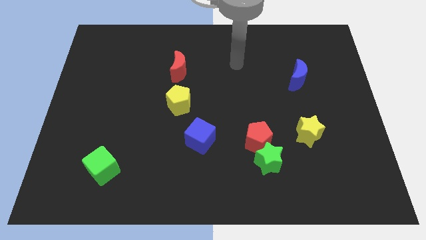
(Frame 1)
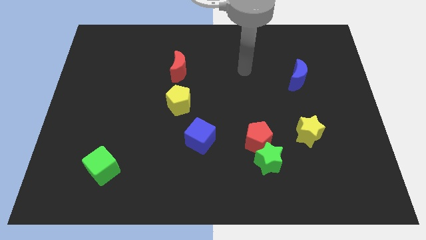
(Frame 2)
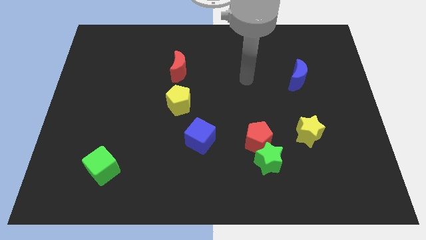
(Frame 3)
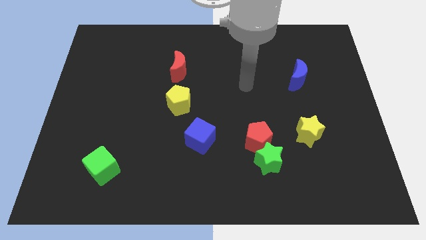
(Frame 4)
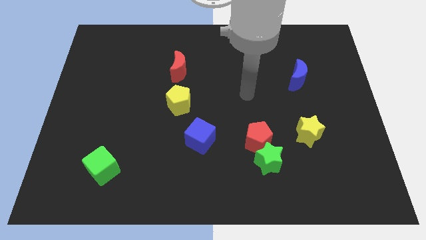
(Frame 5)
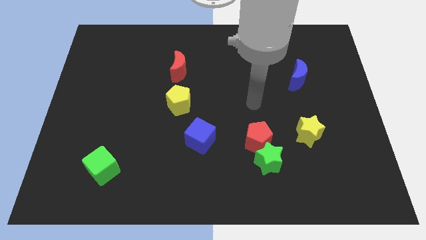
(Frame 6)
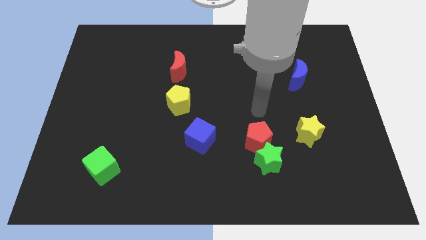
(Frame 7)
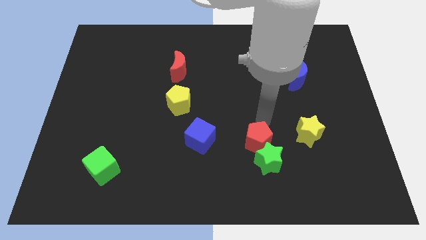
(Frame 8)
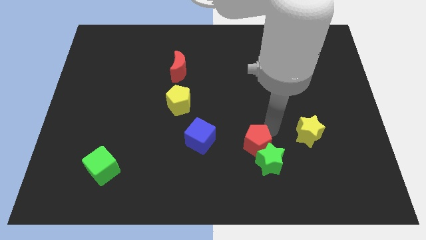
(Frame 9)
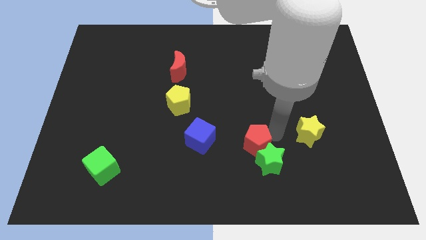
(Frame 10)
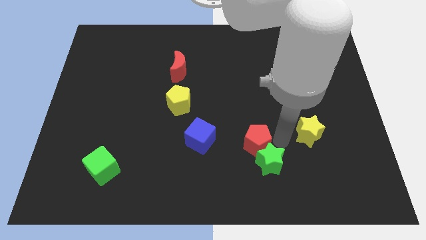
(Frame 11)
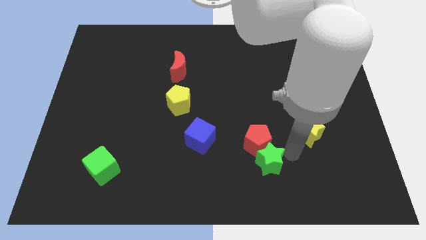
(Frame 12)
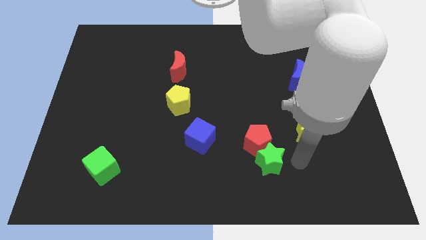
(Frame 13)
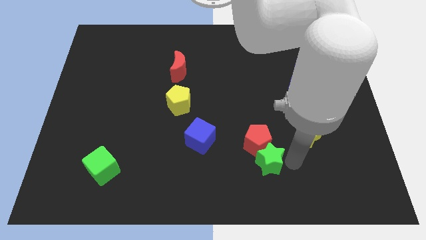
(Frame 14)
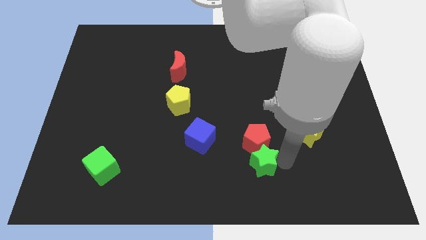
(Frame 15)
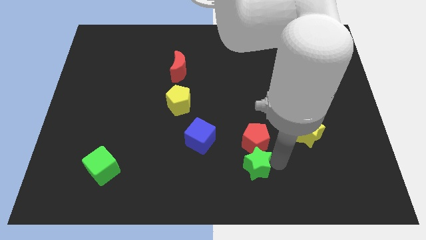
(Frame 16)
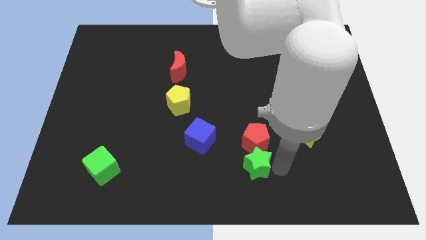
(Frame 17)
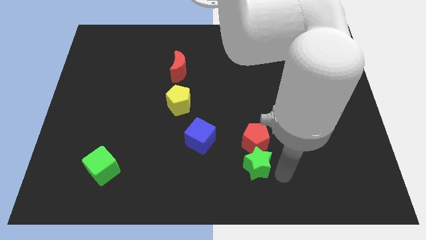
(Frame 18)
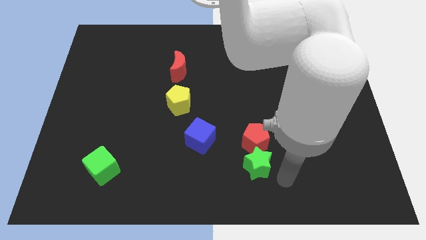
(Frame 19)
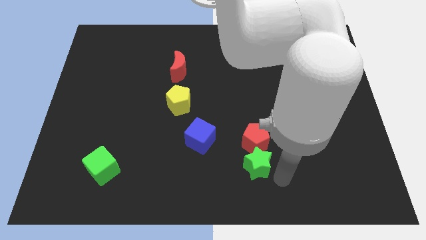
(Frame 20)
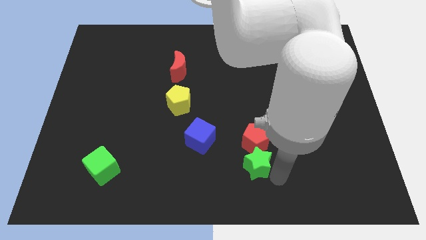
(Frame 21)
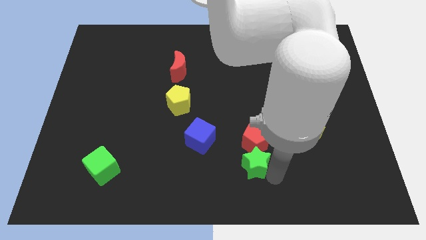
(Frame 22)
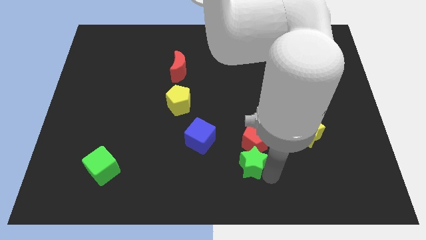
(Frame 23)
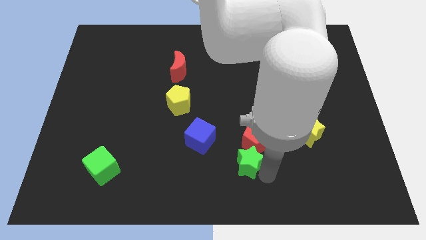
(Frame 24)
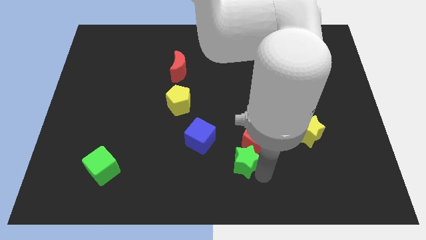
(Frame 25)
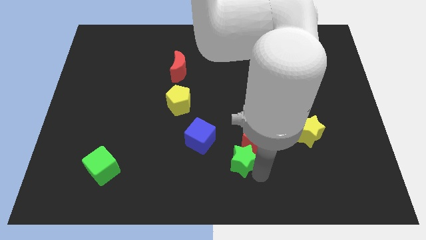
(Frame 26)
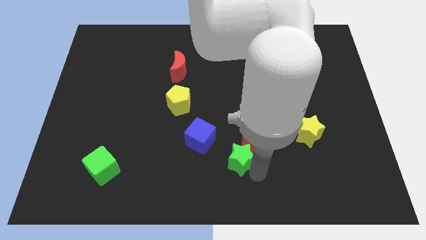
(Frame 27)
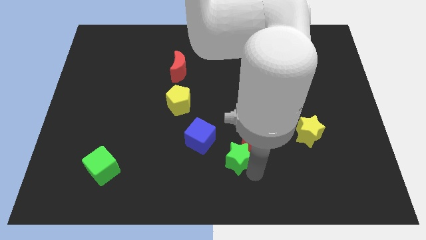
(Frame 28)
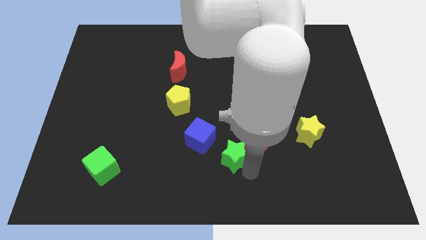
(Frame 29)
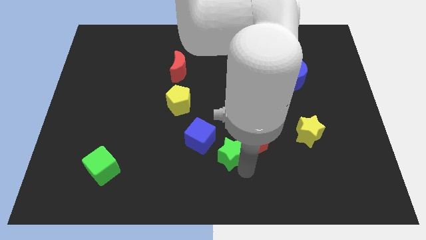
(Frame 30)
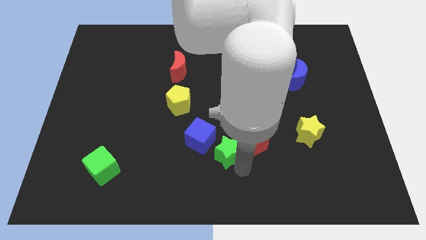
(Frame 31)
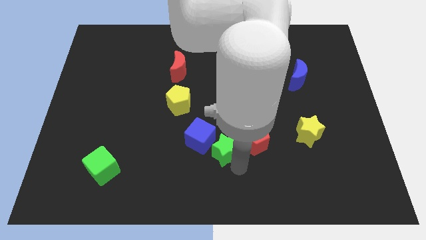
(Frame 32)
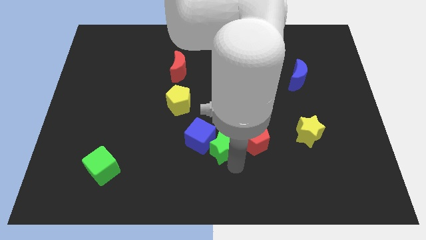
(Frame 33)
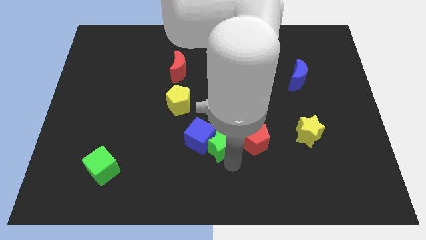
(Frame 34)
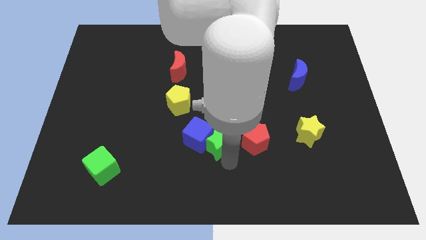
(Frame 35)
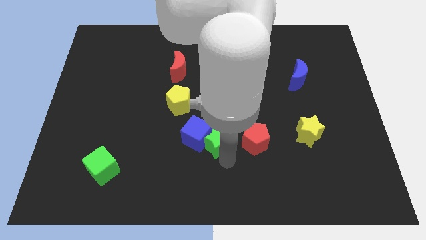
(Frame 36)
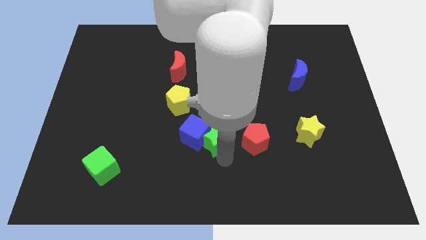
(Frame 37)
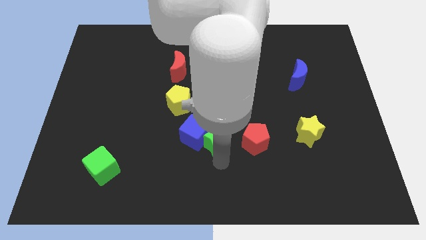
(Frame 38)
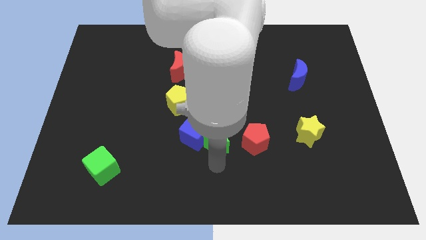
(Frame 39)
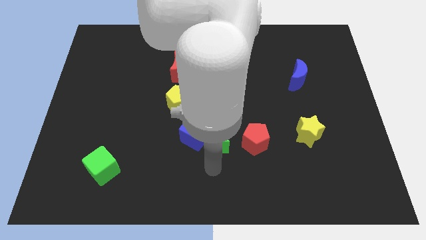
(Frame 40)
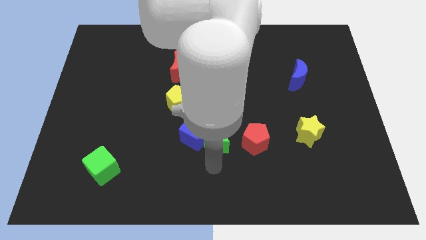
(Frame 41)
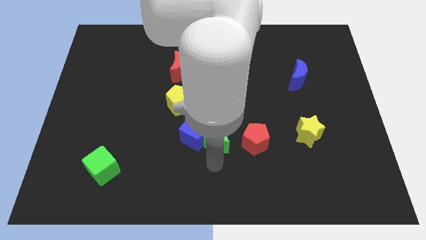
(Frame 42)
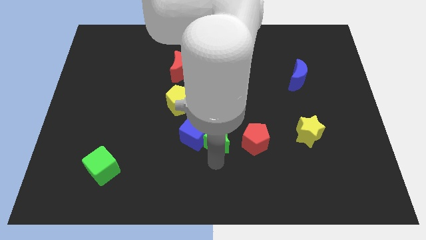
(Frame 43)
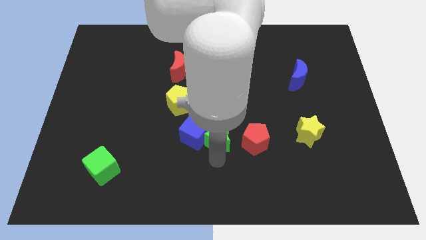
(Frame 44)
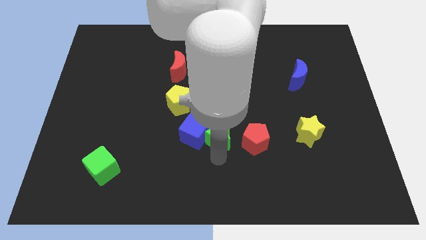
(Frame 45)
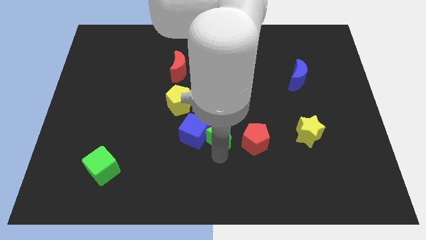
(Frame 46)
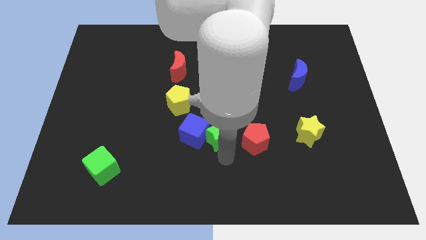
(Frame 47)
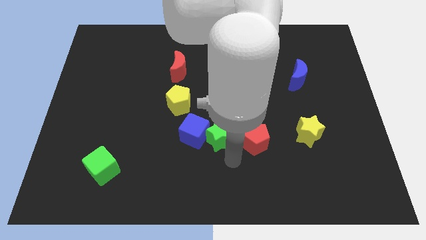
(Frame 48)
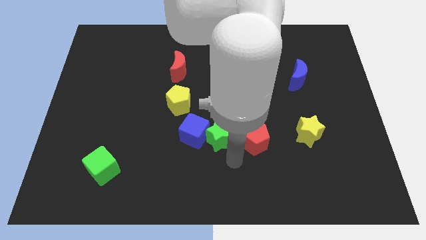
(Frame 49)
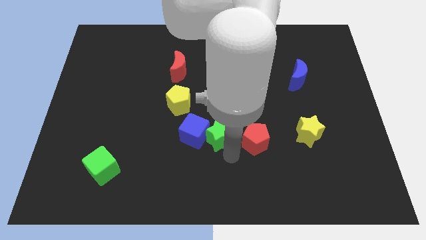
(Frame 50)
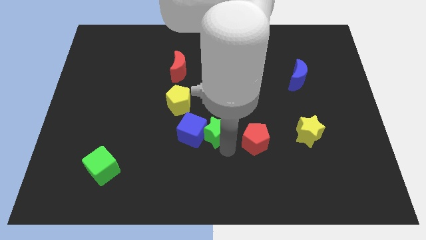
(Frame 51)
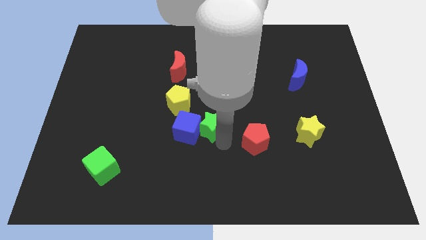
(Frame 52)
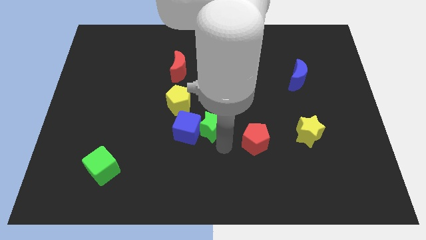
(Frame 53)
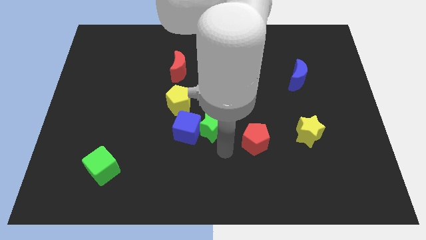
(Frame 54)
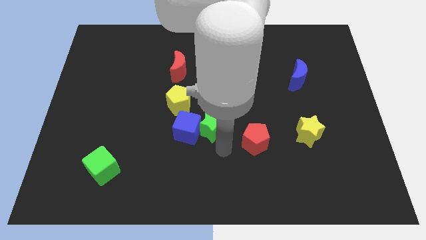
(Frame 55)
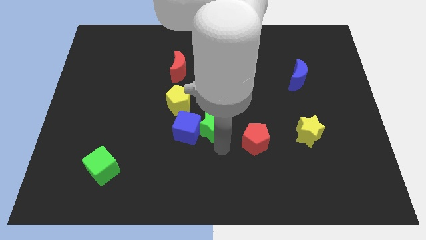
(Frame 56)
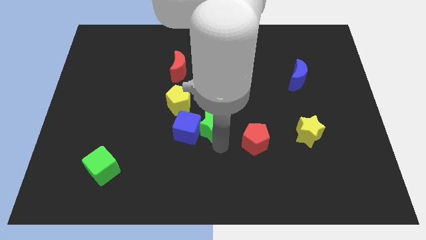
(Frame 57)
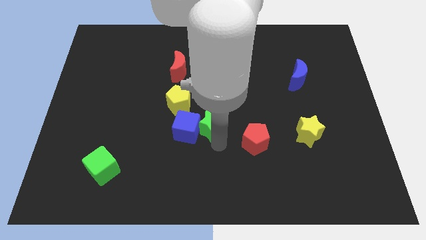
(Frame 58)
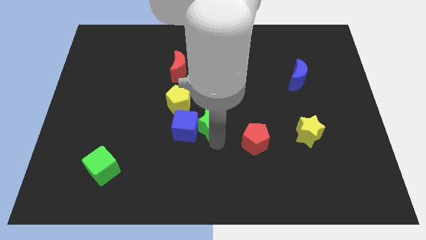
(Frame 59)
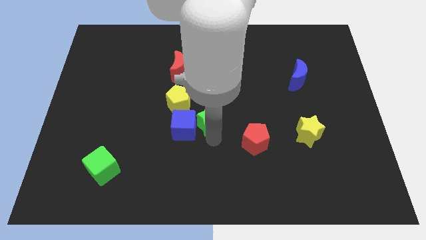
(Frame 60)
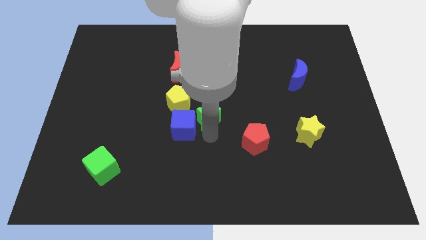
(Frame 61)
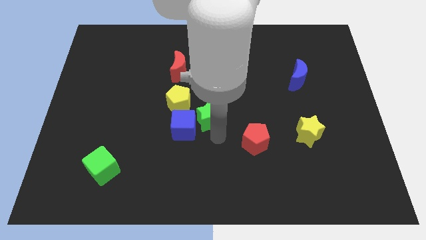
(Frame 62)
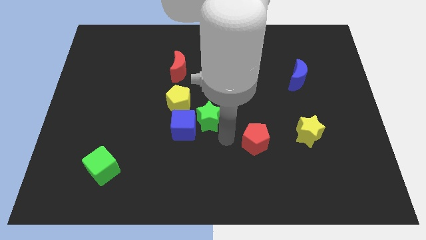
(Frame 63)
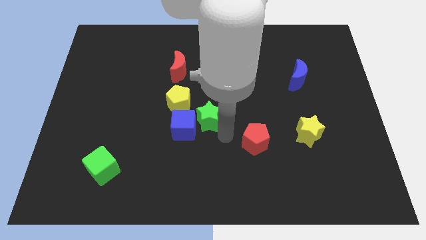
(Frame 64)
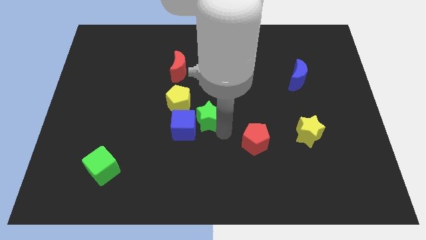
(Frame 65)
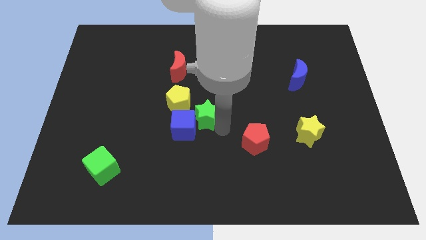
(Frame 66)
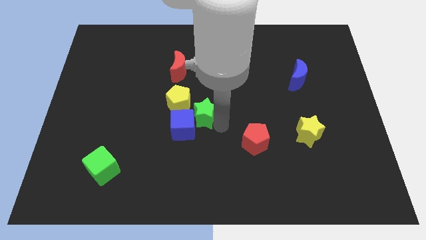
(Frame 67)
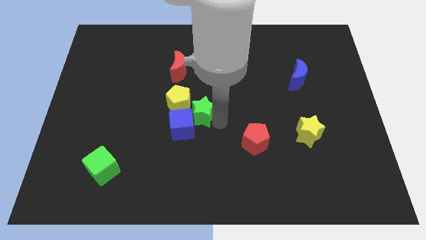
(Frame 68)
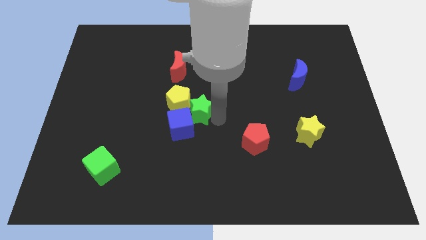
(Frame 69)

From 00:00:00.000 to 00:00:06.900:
put the green star to the top of the blue cube

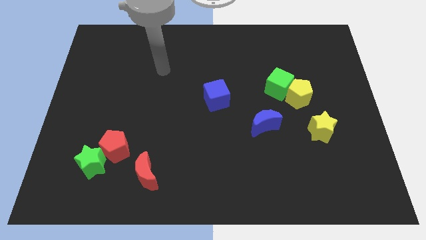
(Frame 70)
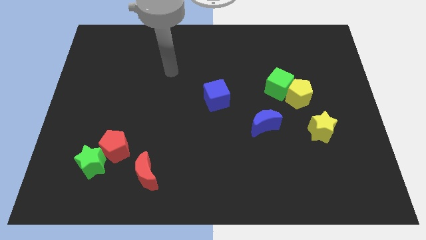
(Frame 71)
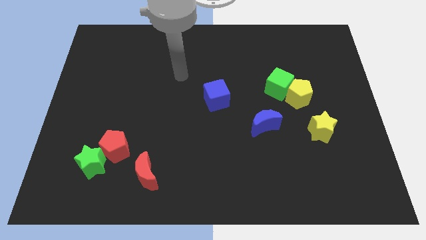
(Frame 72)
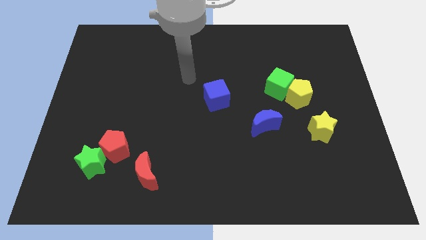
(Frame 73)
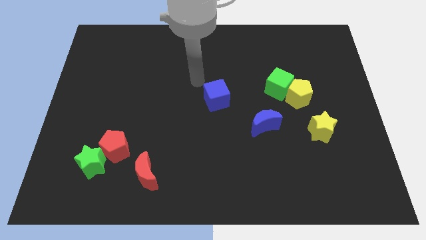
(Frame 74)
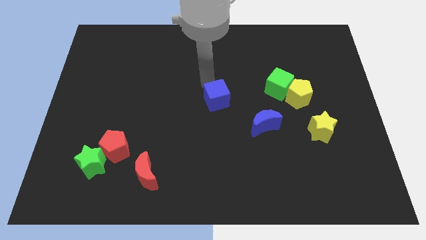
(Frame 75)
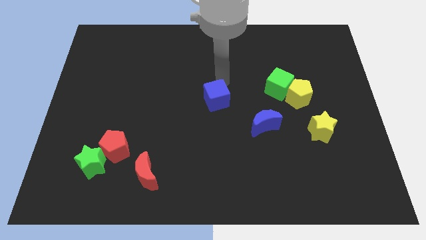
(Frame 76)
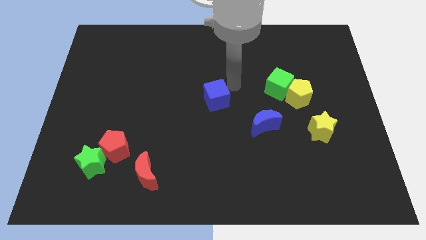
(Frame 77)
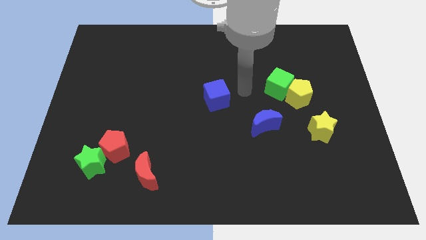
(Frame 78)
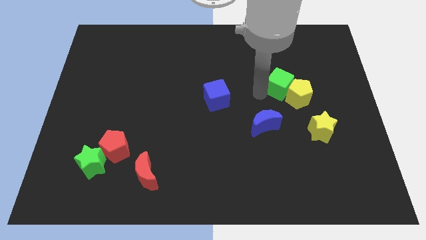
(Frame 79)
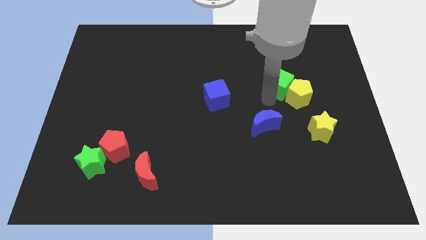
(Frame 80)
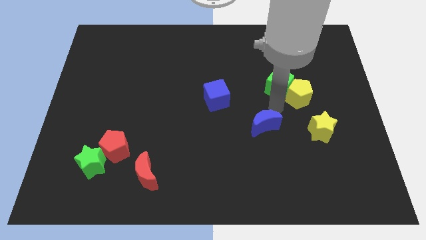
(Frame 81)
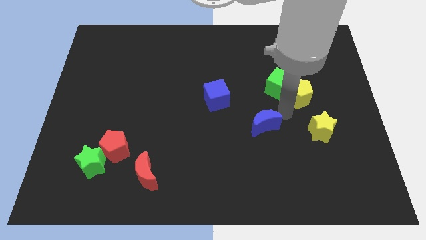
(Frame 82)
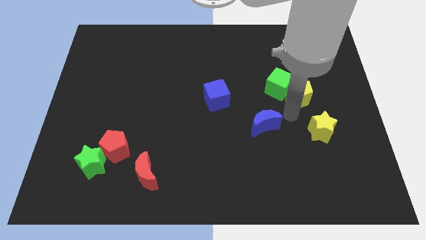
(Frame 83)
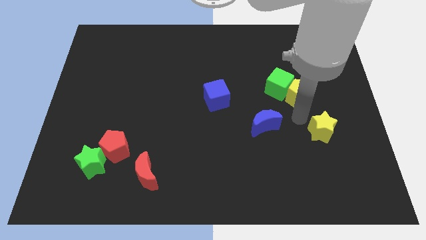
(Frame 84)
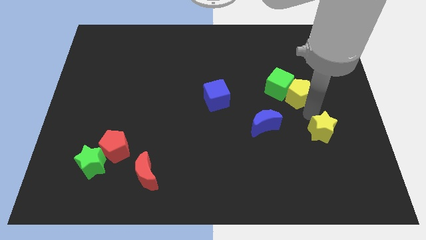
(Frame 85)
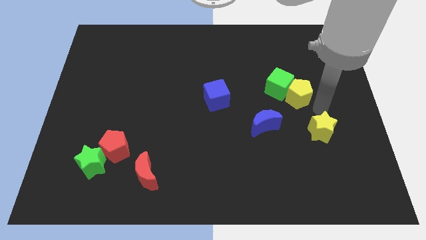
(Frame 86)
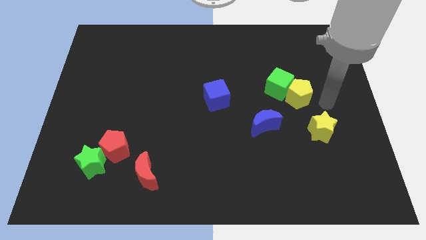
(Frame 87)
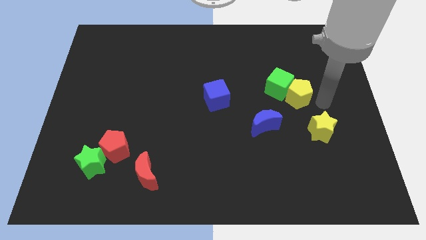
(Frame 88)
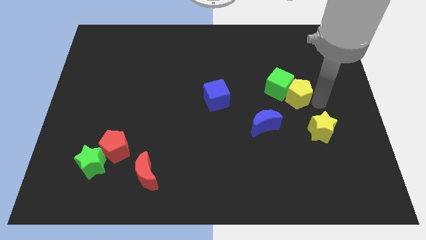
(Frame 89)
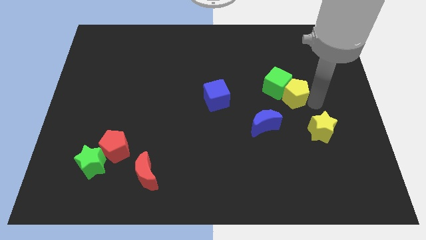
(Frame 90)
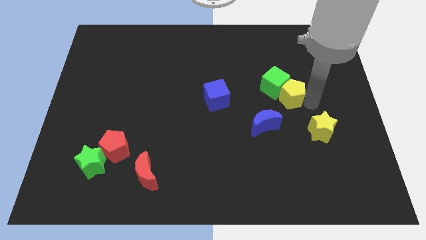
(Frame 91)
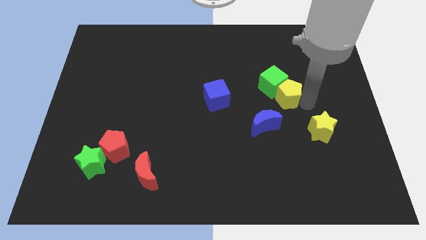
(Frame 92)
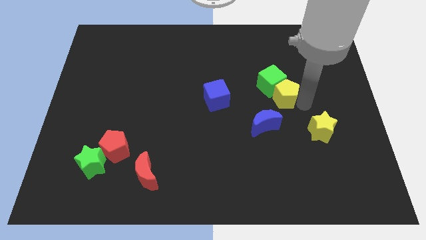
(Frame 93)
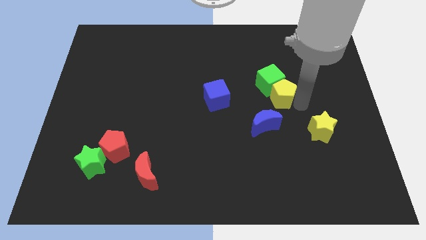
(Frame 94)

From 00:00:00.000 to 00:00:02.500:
slide the yellow pentagon to the top of the blue moon
